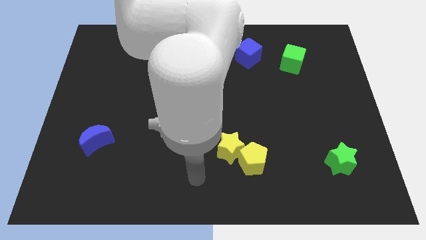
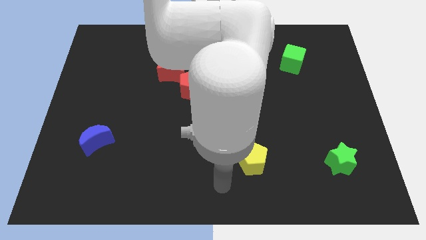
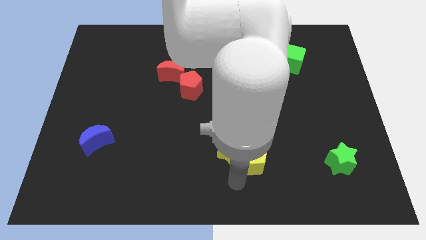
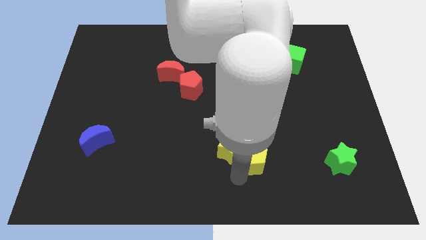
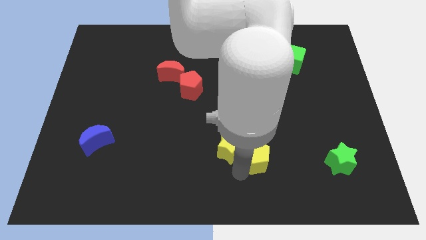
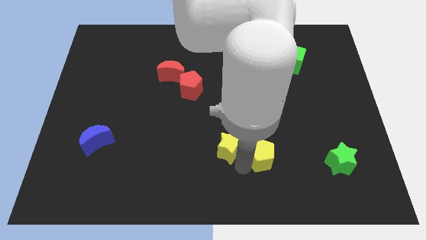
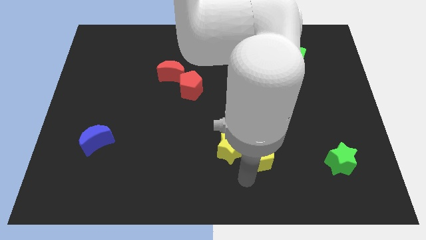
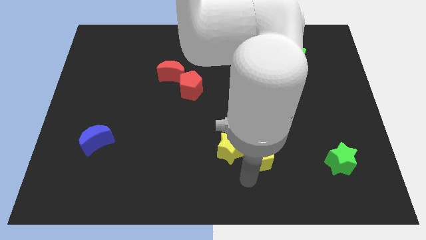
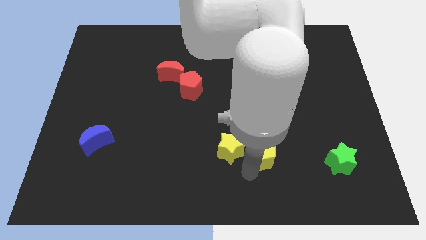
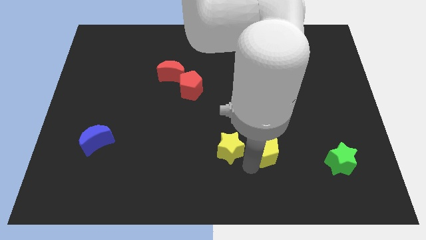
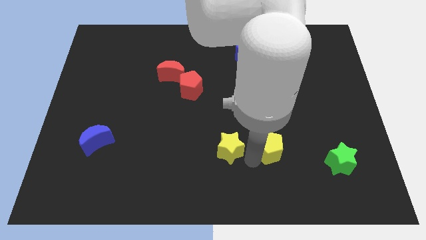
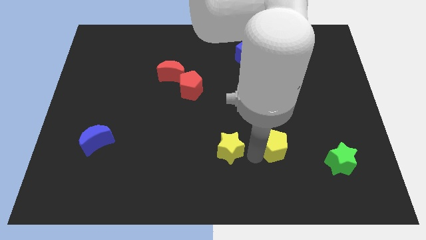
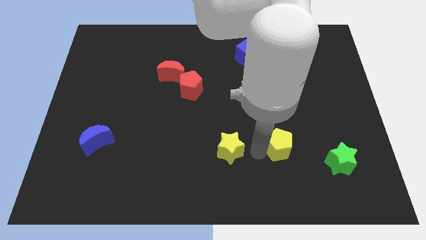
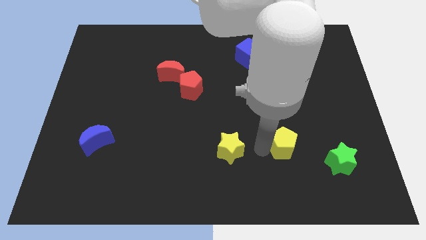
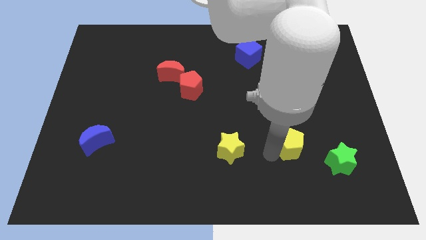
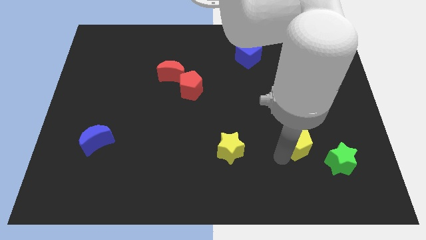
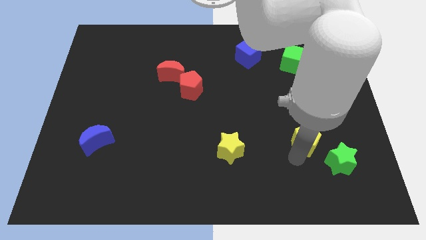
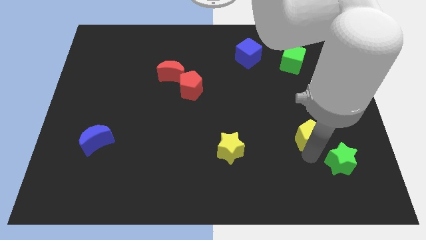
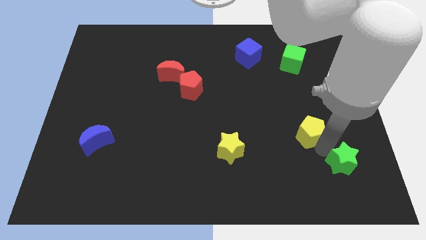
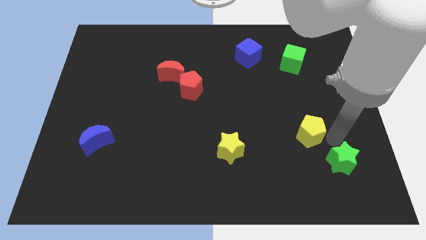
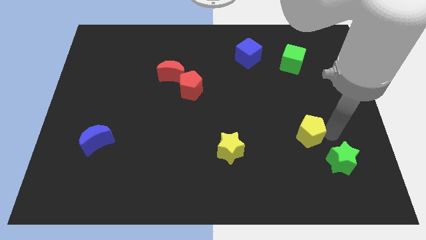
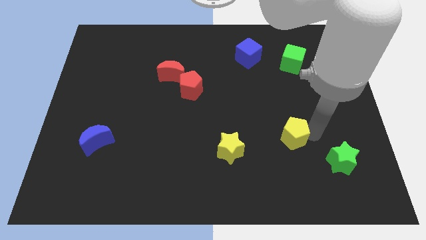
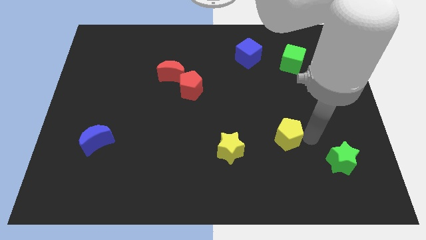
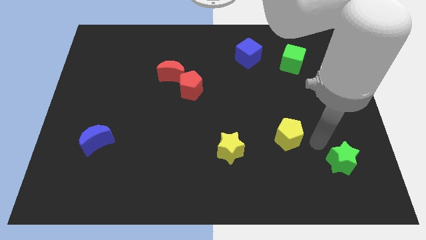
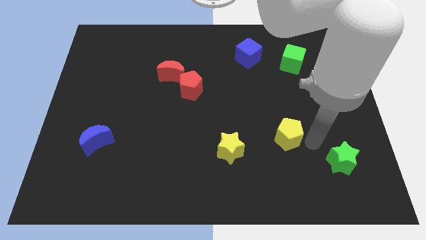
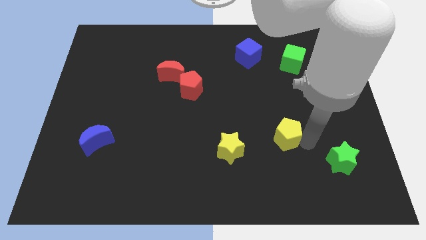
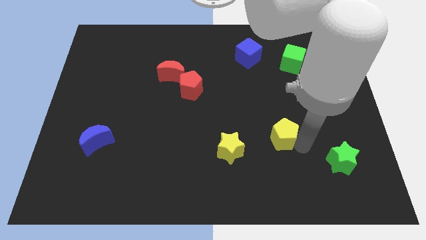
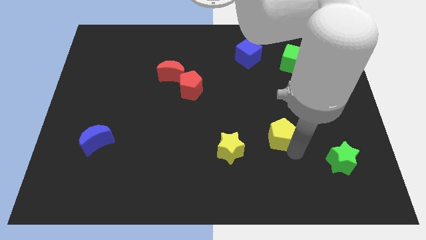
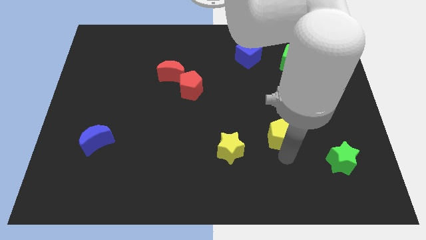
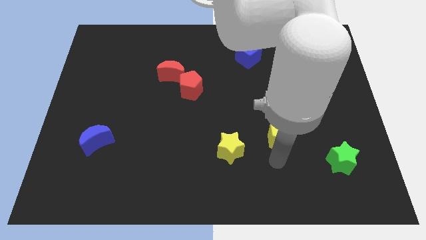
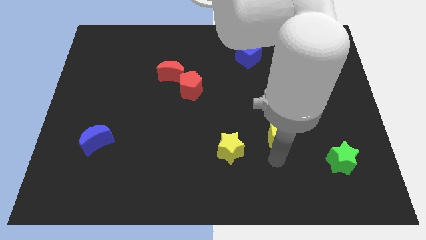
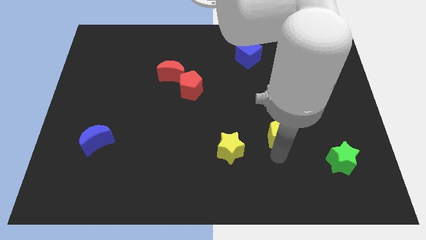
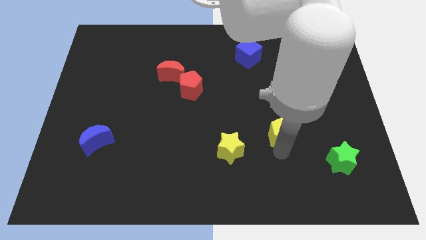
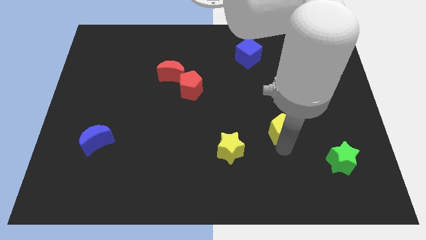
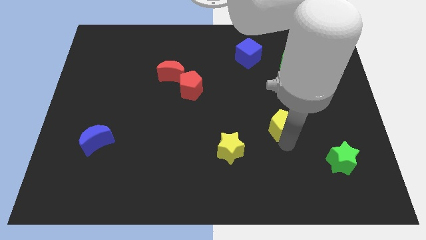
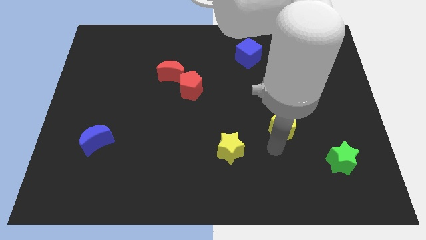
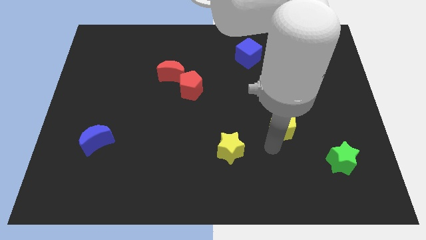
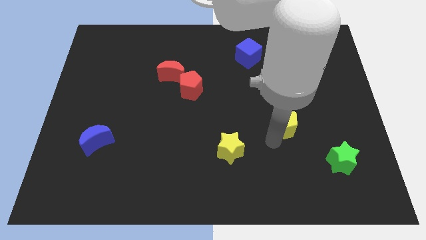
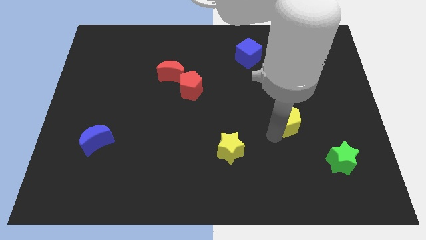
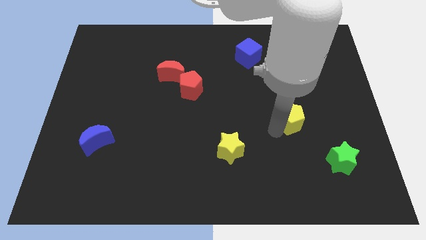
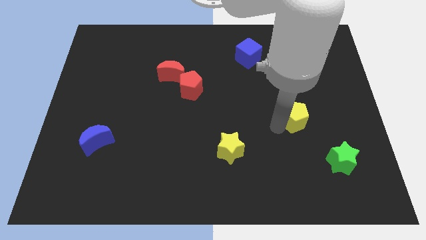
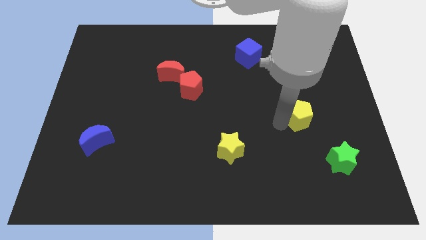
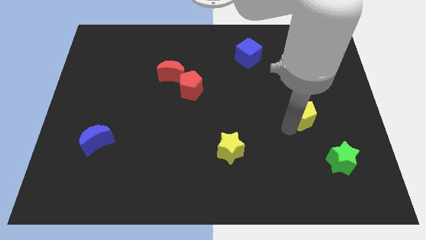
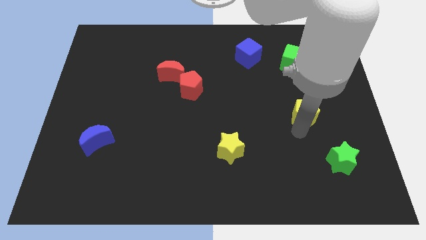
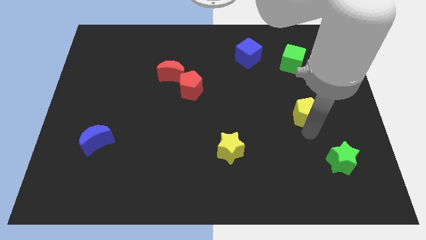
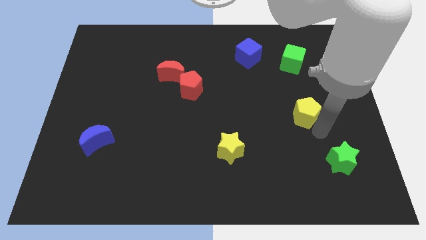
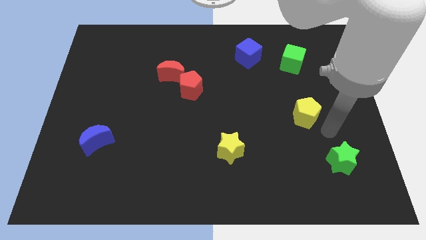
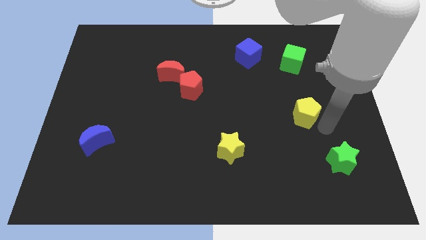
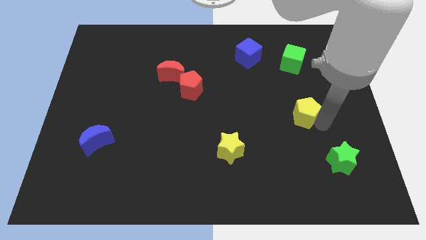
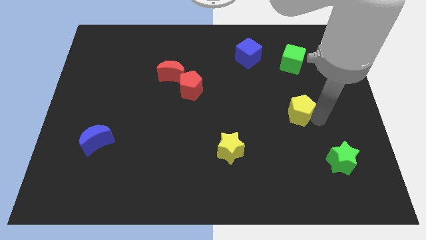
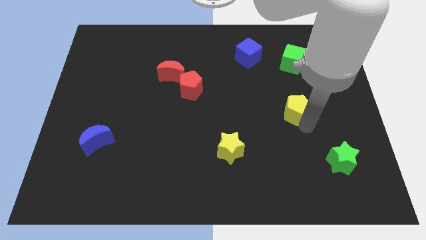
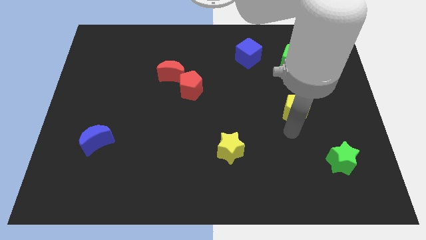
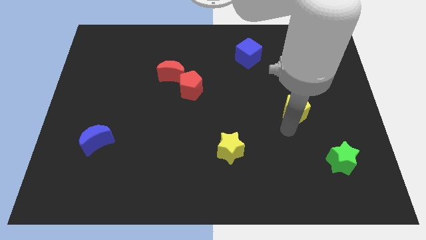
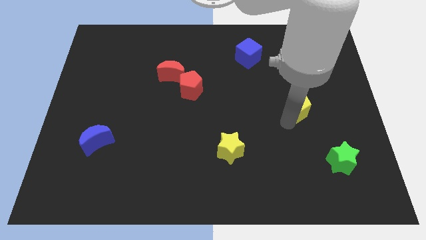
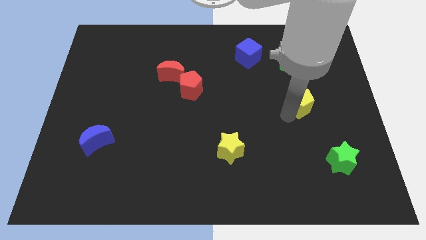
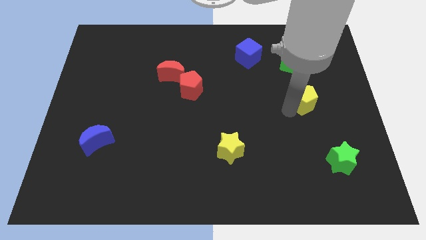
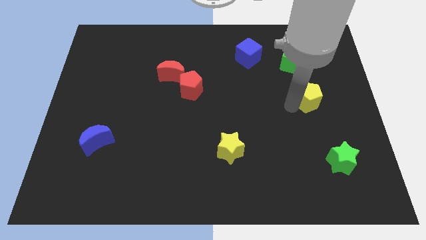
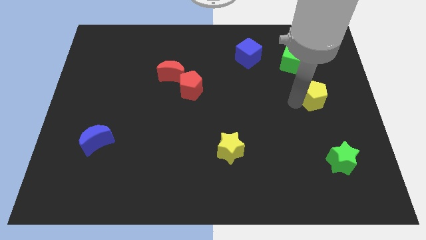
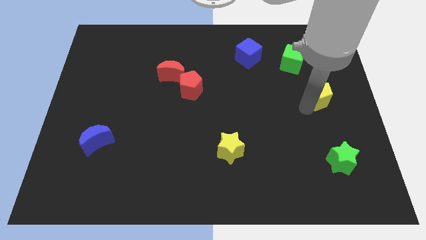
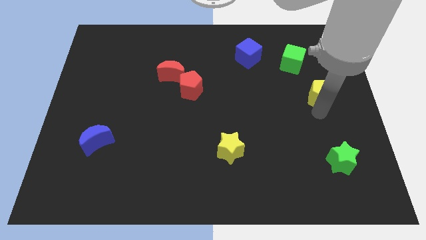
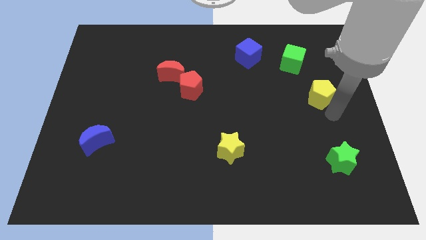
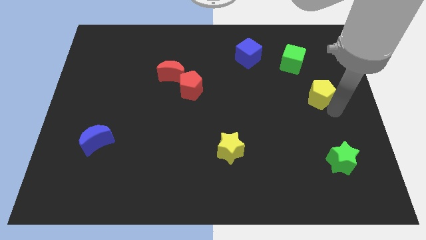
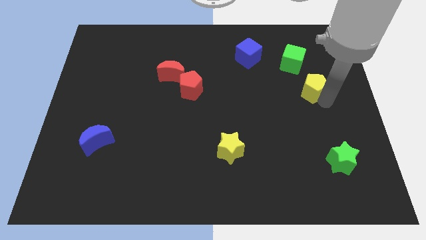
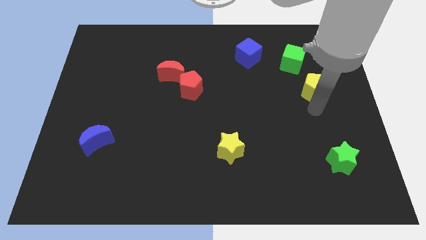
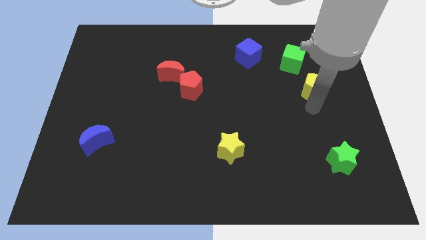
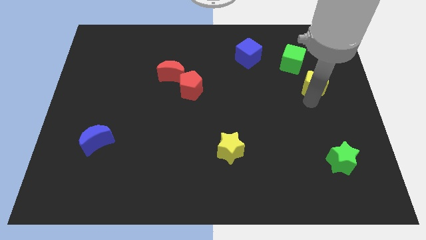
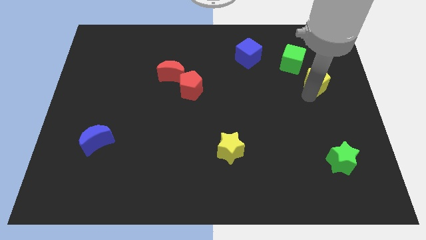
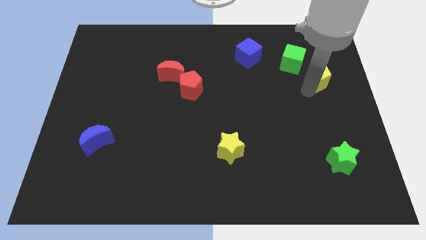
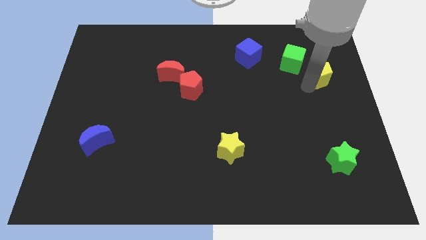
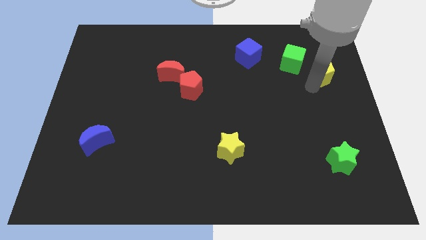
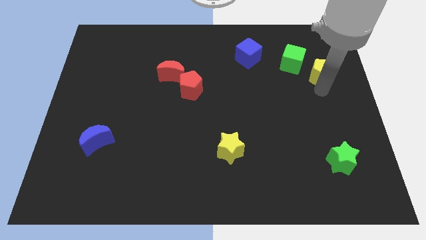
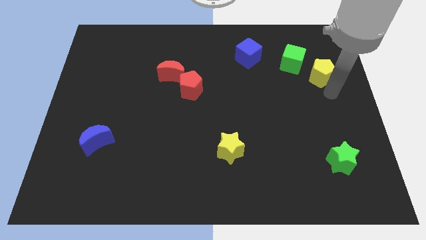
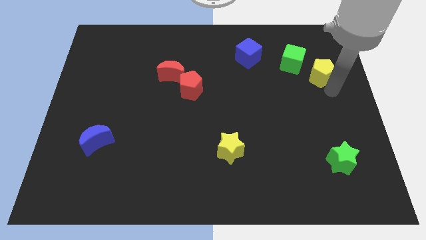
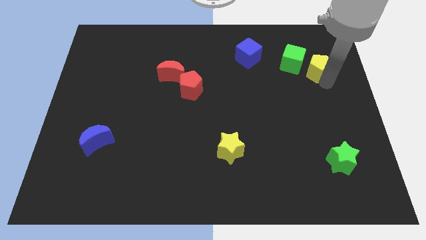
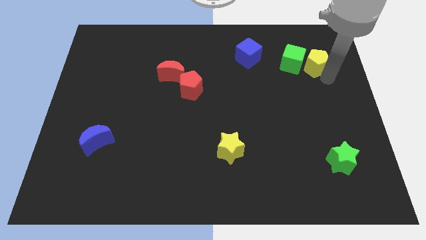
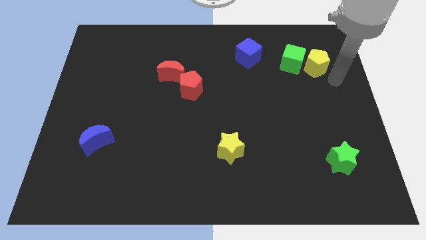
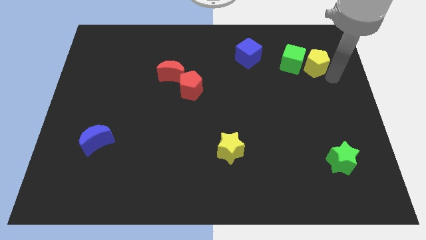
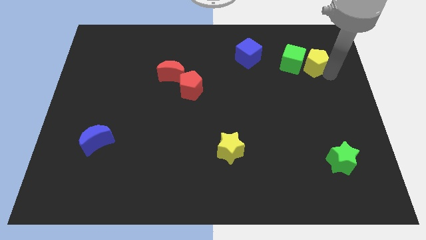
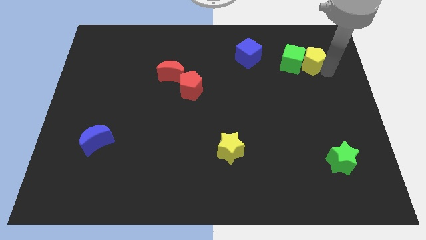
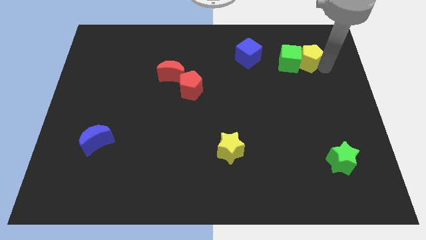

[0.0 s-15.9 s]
put the yellow pentagon just right of the blue cube
